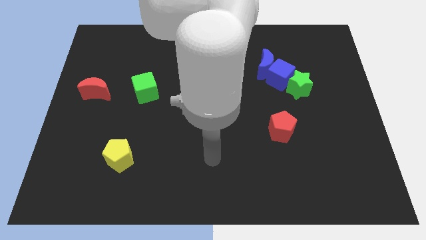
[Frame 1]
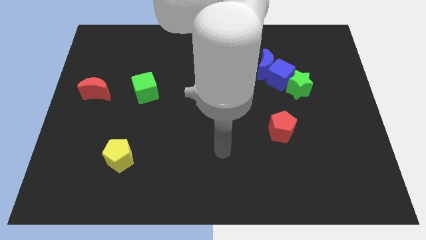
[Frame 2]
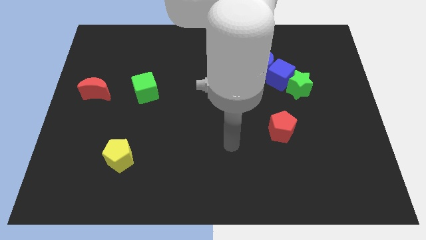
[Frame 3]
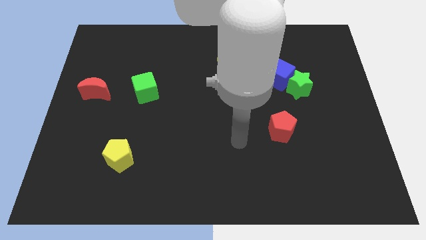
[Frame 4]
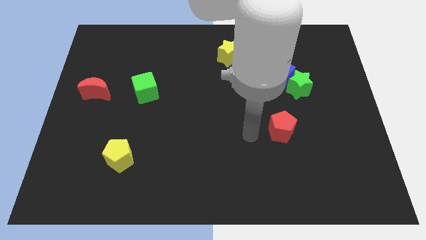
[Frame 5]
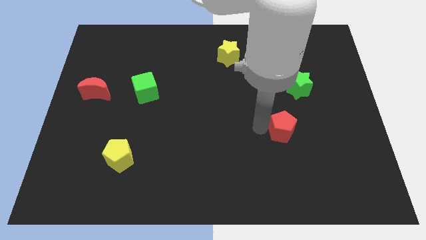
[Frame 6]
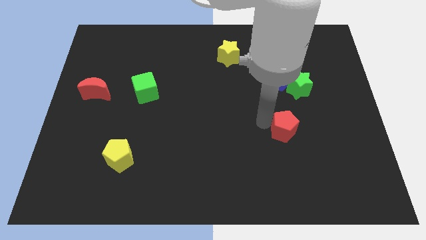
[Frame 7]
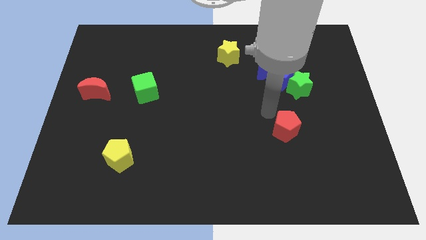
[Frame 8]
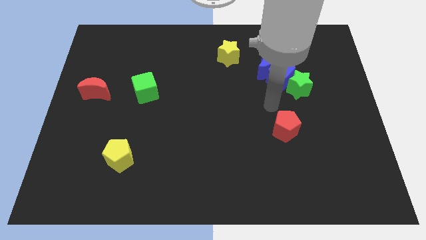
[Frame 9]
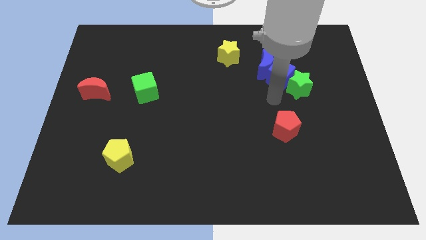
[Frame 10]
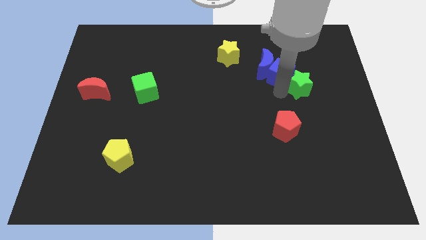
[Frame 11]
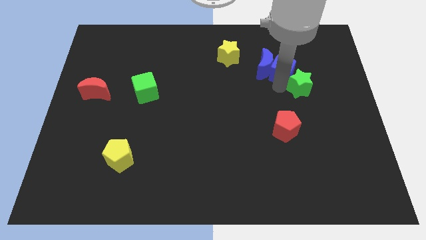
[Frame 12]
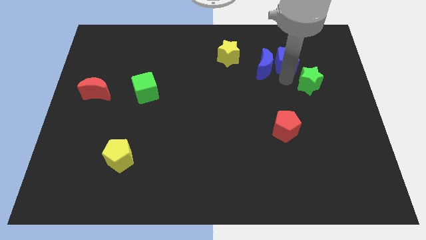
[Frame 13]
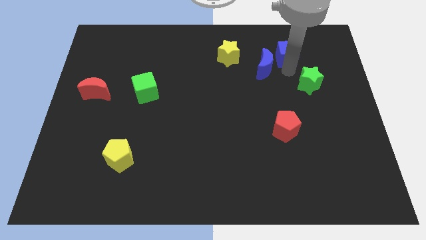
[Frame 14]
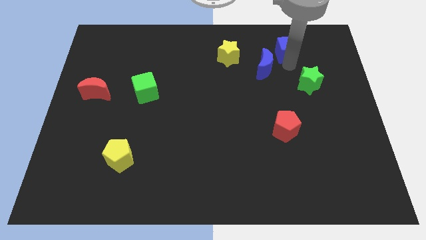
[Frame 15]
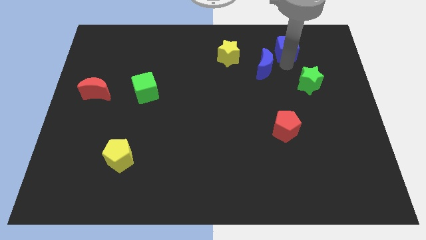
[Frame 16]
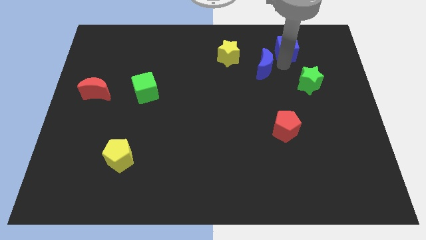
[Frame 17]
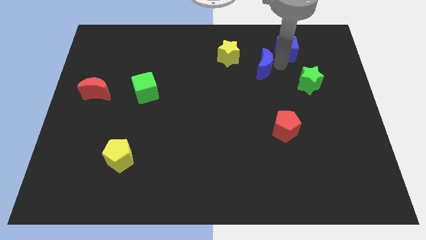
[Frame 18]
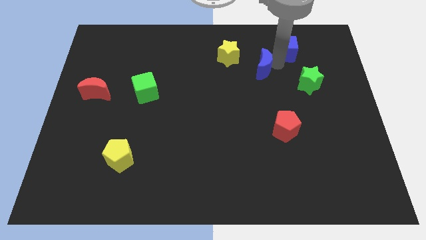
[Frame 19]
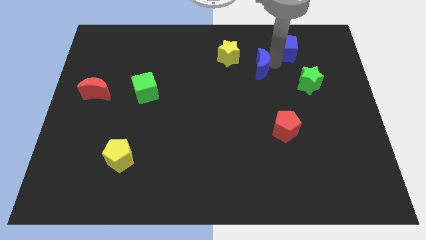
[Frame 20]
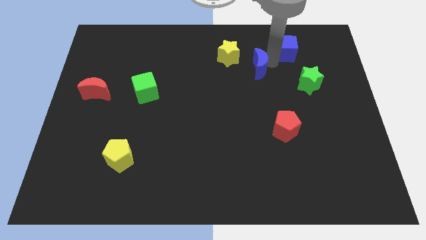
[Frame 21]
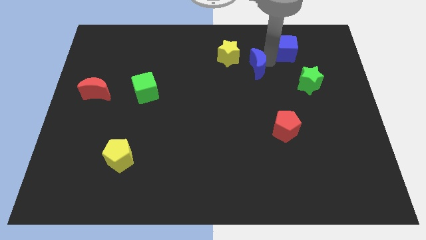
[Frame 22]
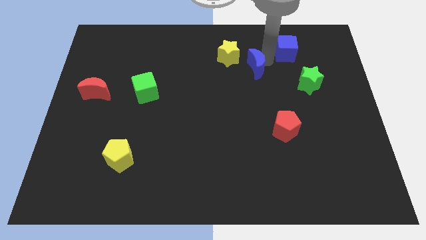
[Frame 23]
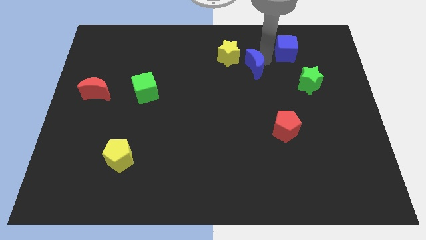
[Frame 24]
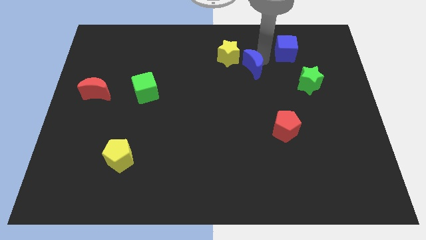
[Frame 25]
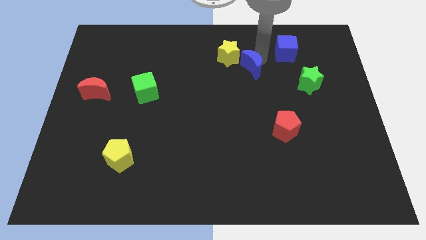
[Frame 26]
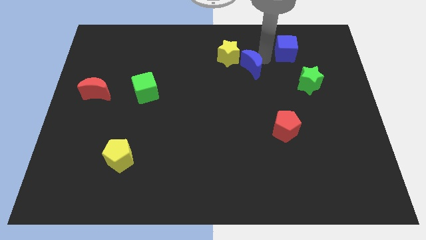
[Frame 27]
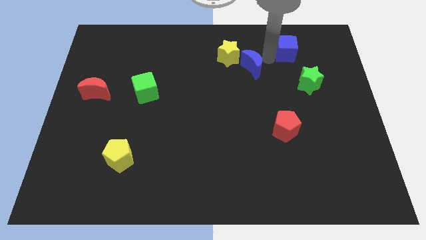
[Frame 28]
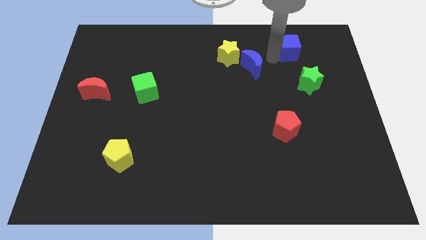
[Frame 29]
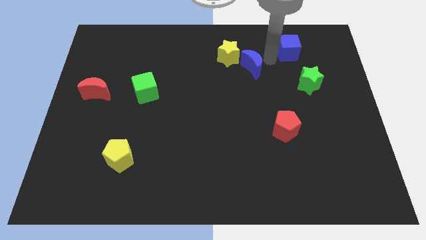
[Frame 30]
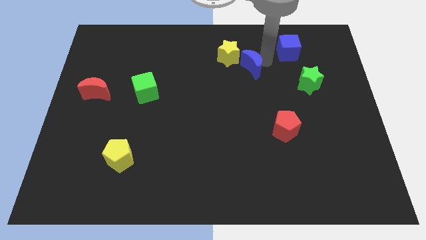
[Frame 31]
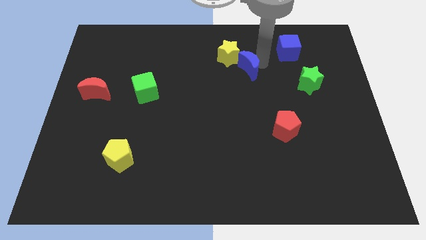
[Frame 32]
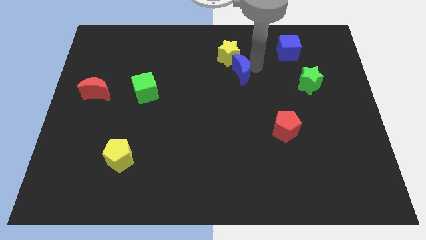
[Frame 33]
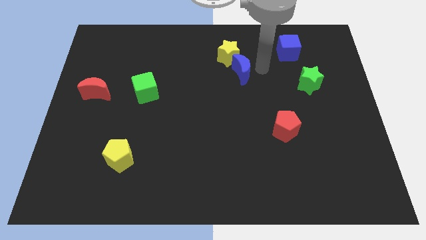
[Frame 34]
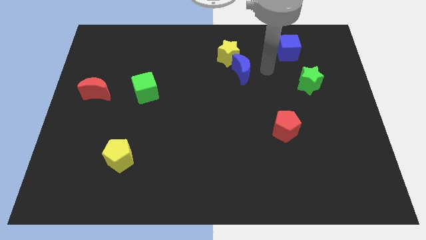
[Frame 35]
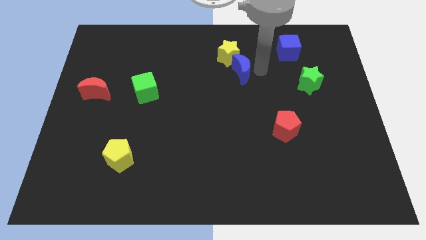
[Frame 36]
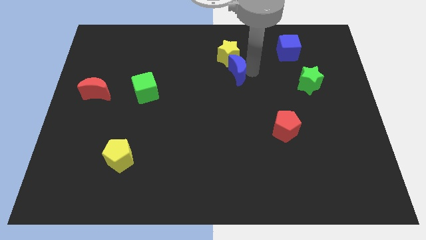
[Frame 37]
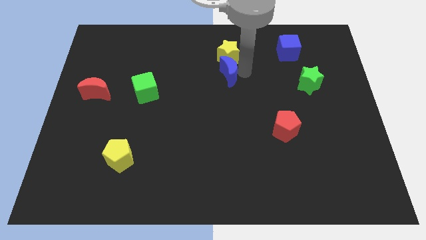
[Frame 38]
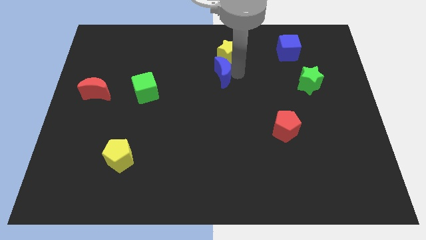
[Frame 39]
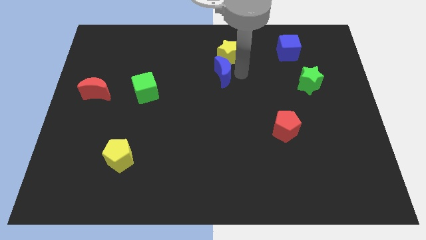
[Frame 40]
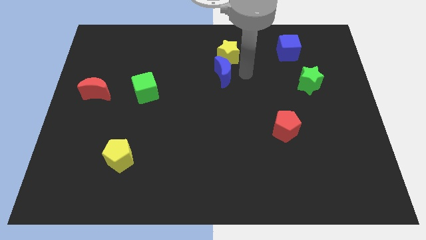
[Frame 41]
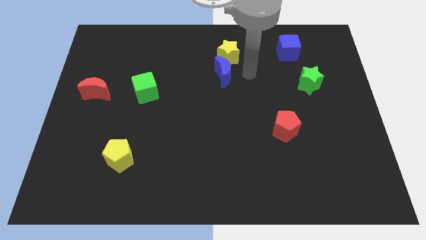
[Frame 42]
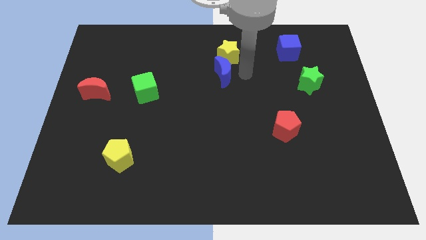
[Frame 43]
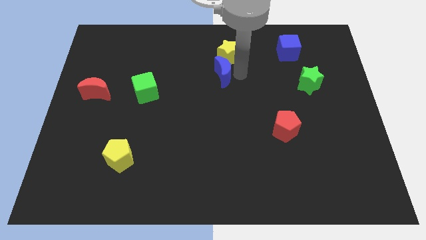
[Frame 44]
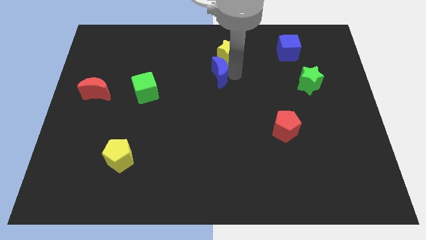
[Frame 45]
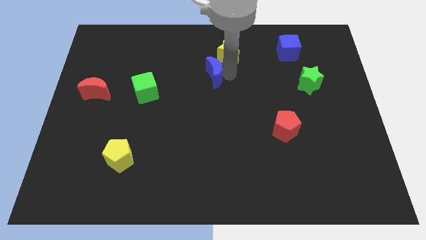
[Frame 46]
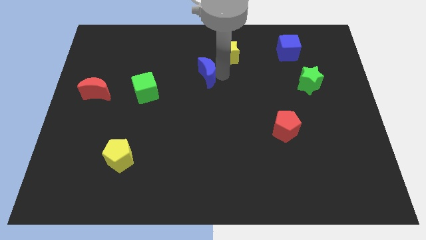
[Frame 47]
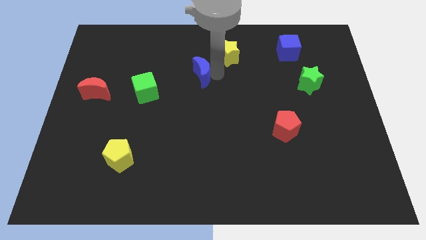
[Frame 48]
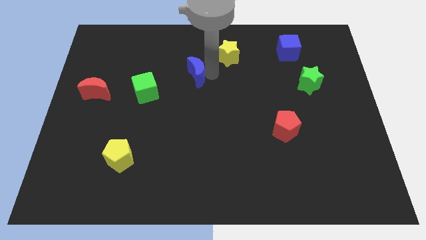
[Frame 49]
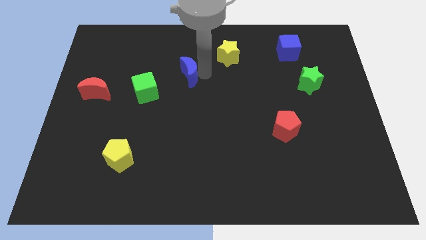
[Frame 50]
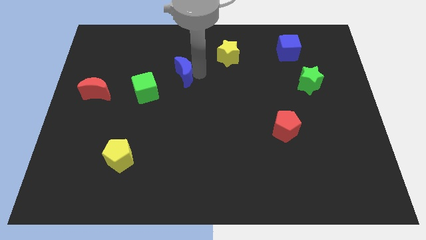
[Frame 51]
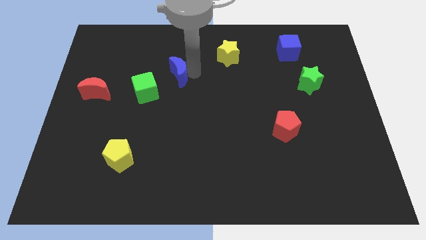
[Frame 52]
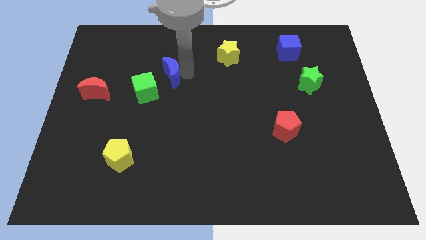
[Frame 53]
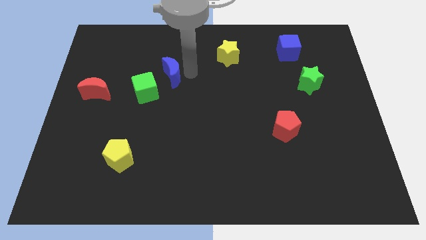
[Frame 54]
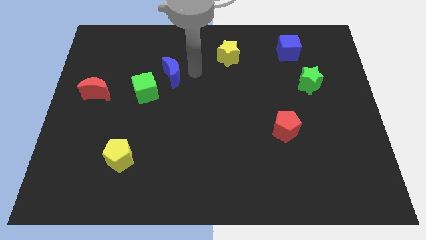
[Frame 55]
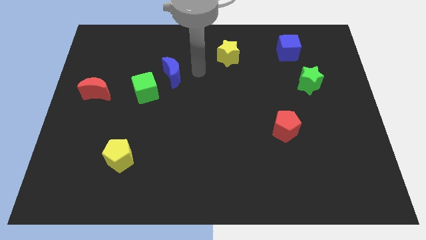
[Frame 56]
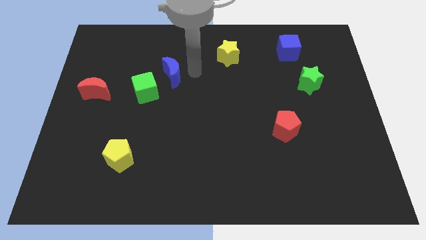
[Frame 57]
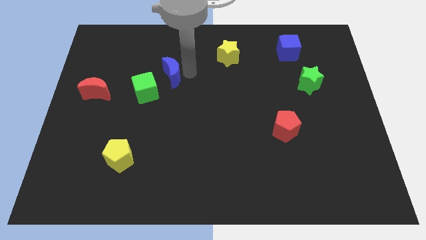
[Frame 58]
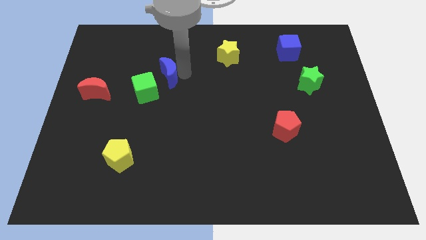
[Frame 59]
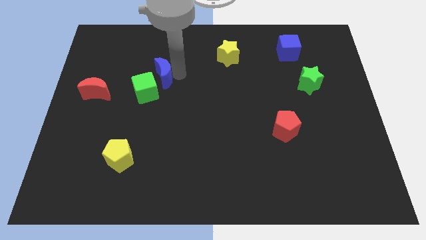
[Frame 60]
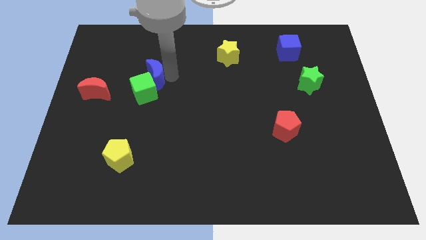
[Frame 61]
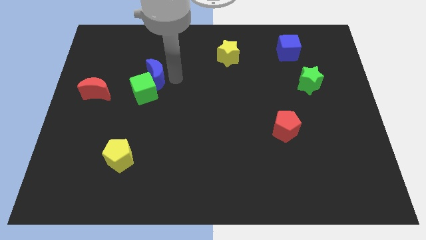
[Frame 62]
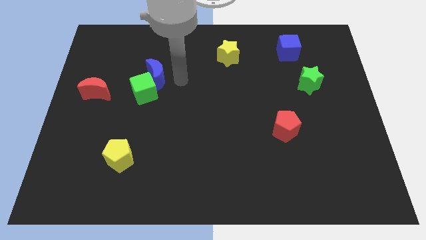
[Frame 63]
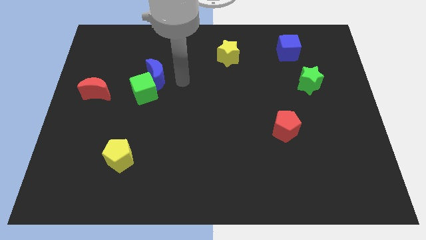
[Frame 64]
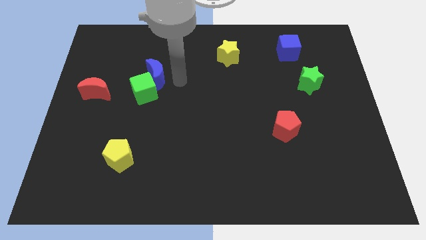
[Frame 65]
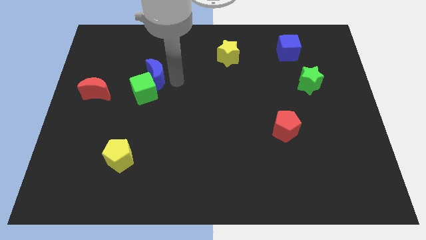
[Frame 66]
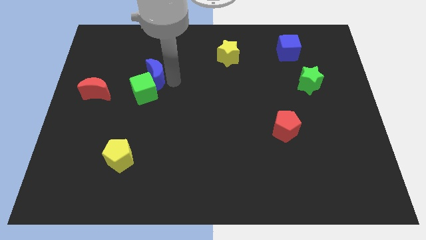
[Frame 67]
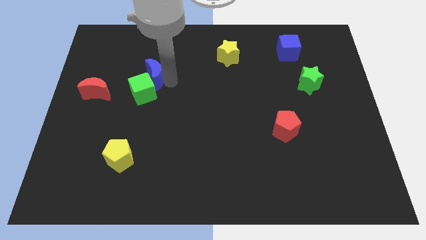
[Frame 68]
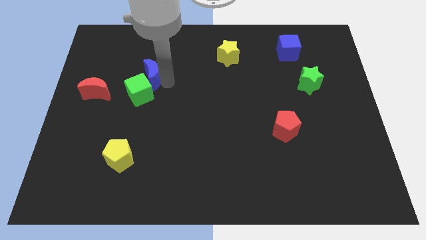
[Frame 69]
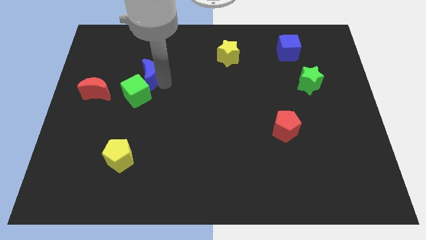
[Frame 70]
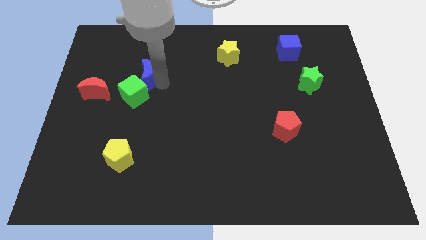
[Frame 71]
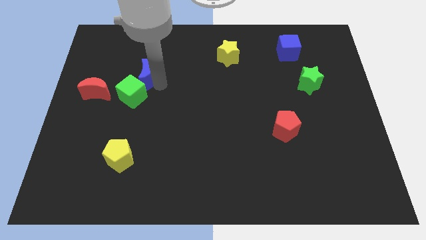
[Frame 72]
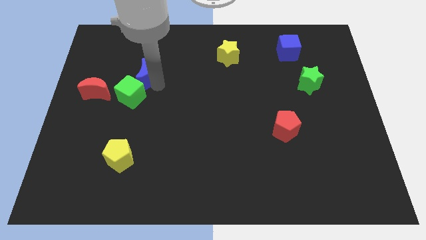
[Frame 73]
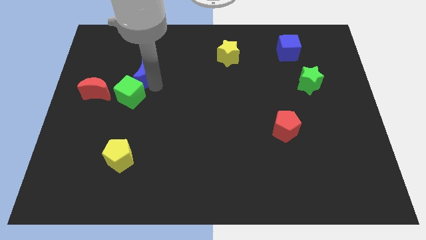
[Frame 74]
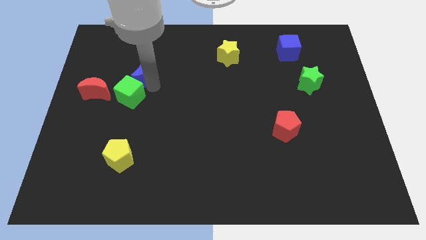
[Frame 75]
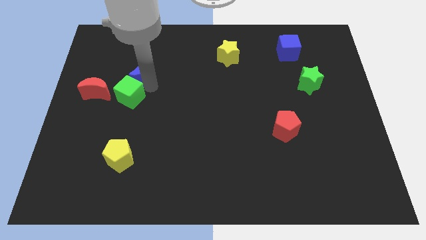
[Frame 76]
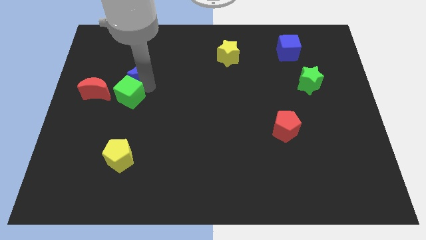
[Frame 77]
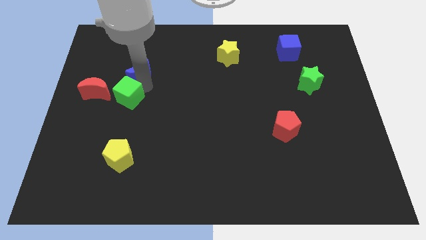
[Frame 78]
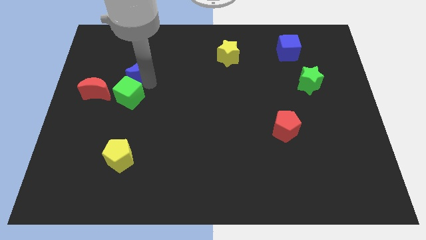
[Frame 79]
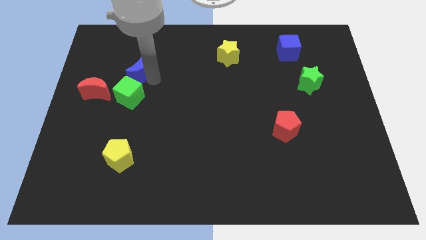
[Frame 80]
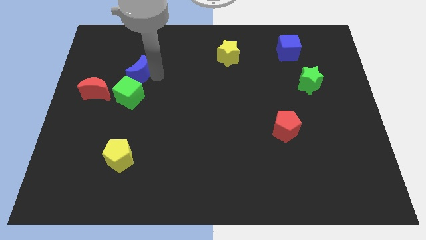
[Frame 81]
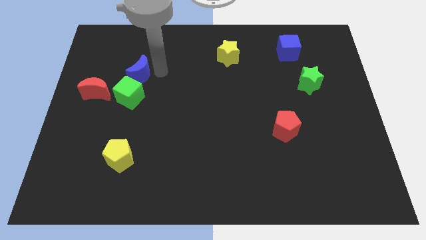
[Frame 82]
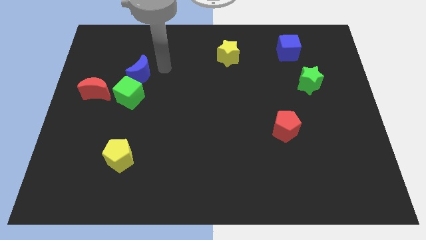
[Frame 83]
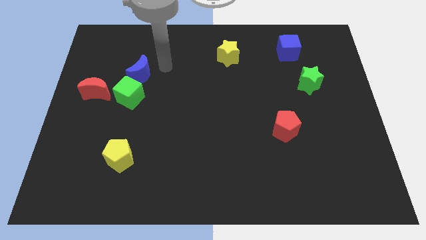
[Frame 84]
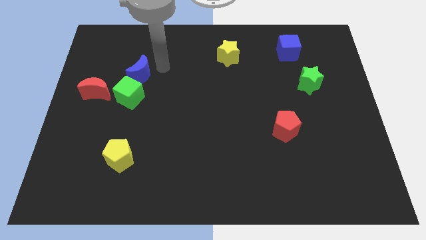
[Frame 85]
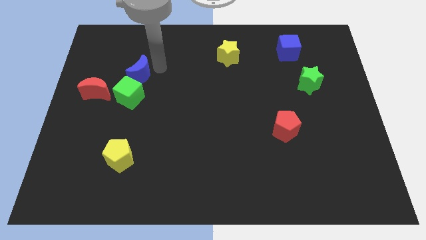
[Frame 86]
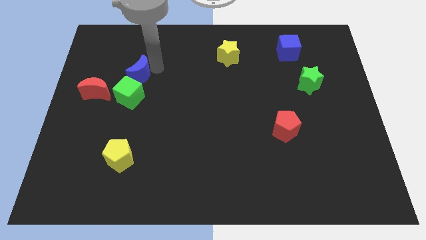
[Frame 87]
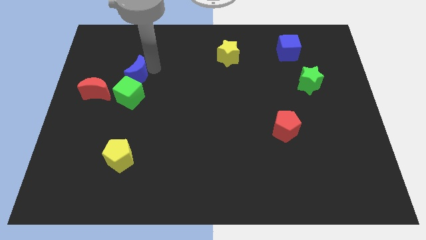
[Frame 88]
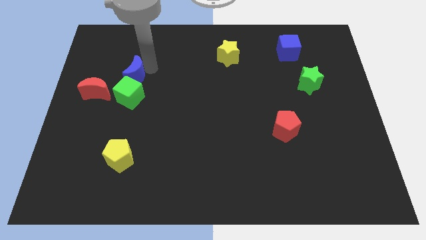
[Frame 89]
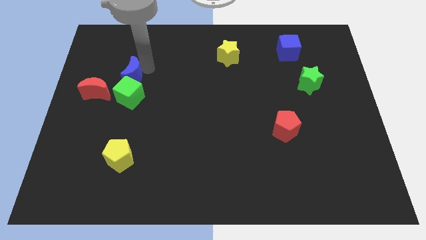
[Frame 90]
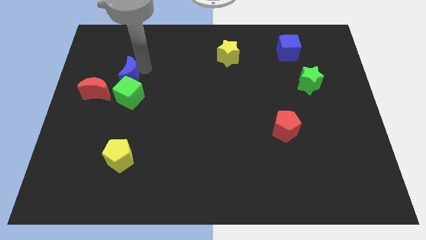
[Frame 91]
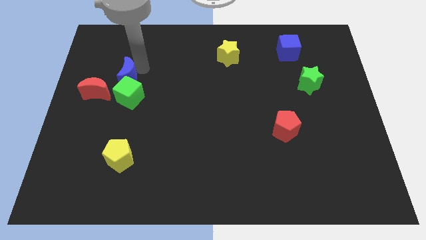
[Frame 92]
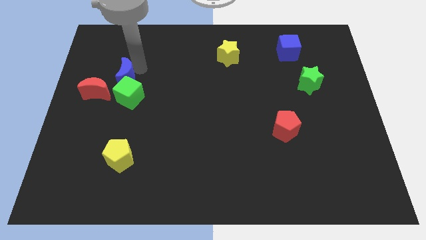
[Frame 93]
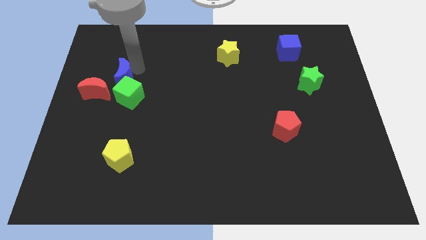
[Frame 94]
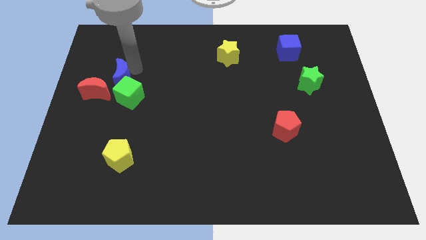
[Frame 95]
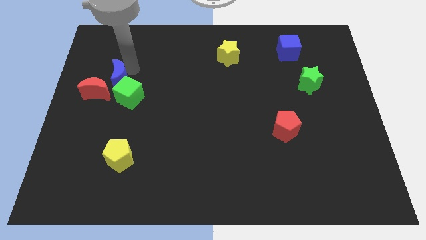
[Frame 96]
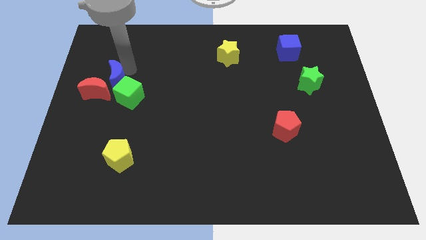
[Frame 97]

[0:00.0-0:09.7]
put the blue moon close to the red moon
